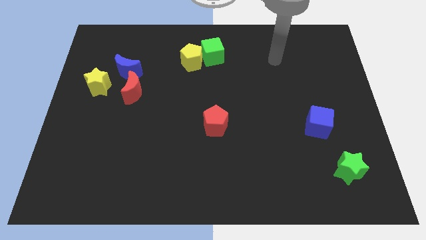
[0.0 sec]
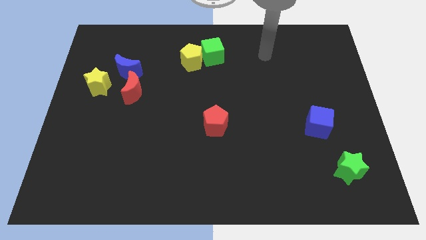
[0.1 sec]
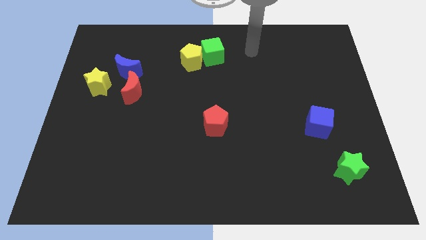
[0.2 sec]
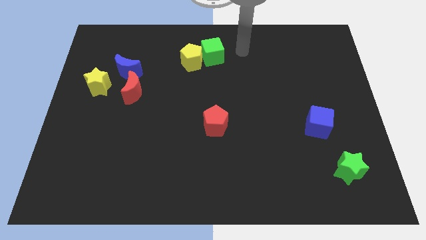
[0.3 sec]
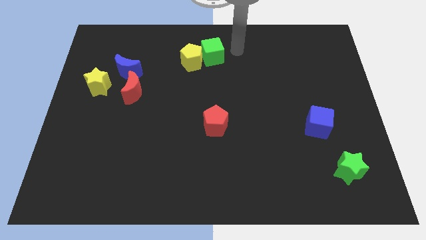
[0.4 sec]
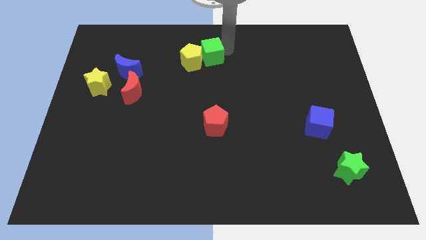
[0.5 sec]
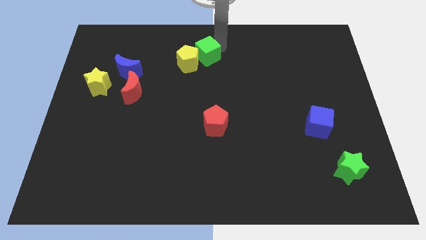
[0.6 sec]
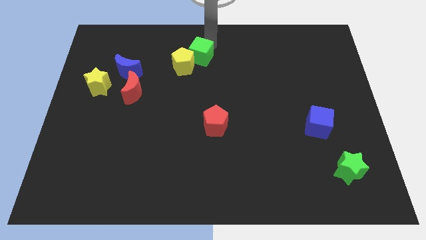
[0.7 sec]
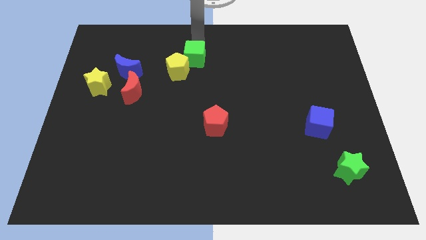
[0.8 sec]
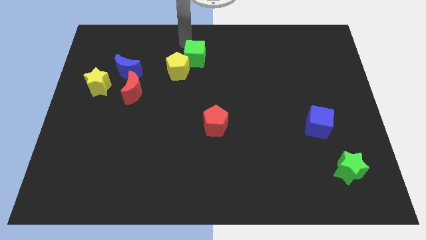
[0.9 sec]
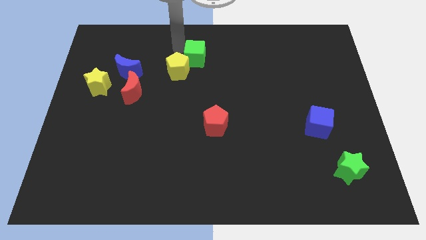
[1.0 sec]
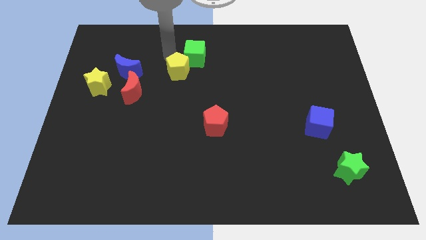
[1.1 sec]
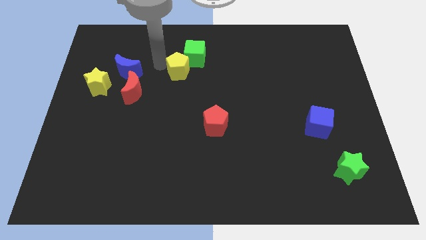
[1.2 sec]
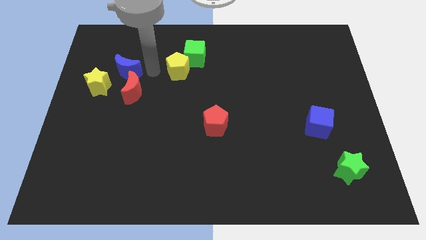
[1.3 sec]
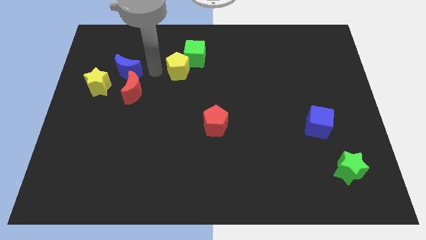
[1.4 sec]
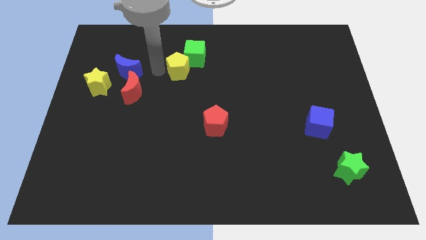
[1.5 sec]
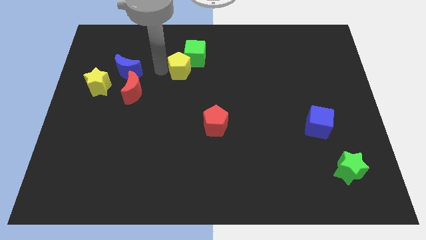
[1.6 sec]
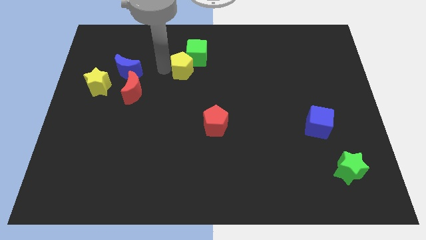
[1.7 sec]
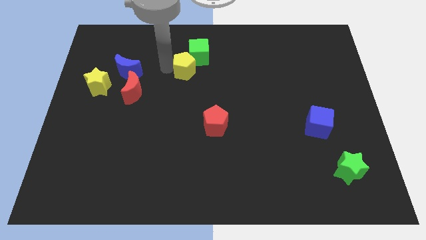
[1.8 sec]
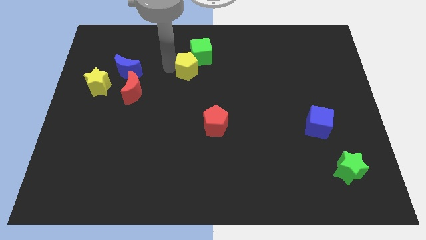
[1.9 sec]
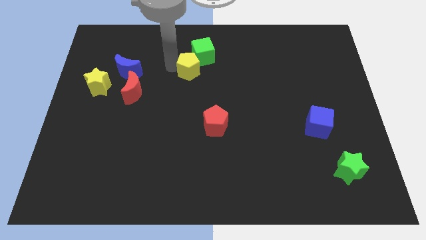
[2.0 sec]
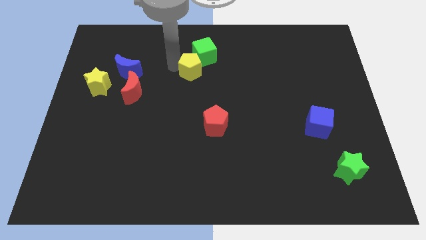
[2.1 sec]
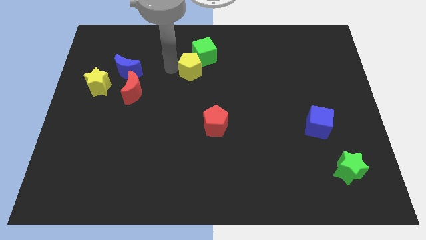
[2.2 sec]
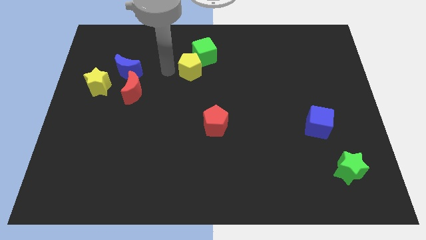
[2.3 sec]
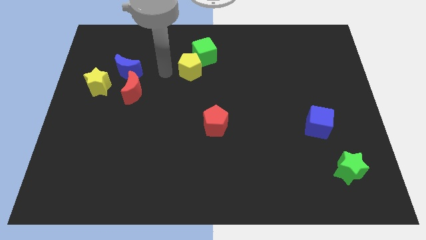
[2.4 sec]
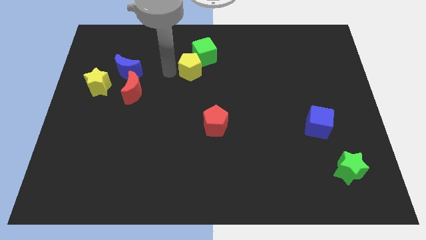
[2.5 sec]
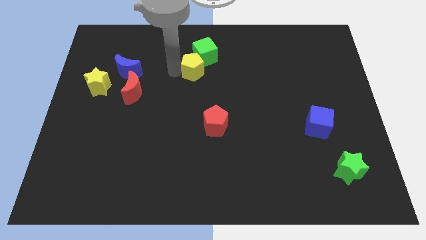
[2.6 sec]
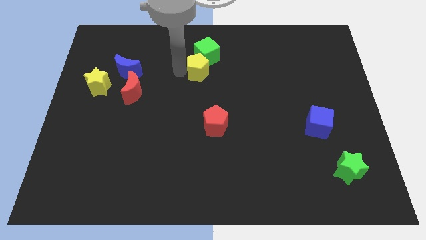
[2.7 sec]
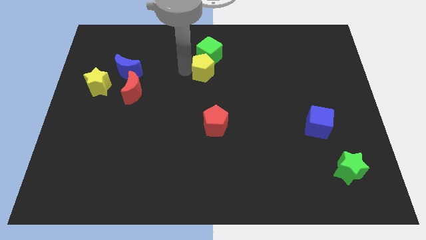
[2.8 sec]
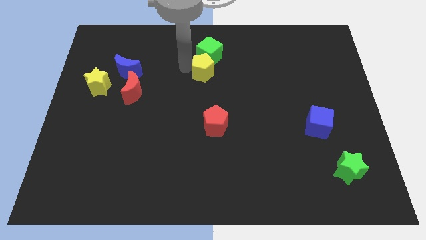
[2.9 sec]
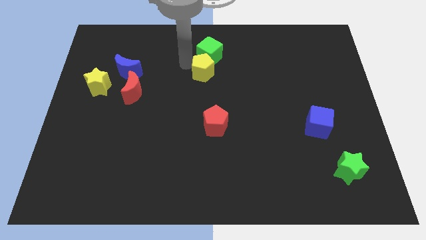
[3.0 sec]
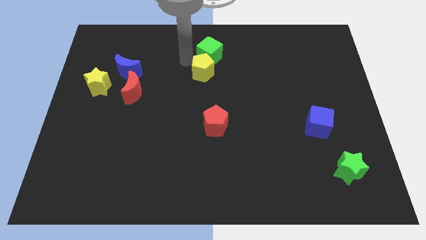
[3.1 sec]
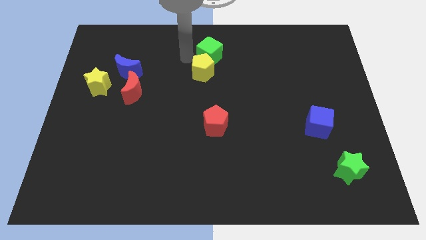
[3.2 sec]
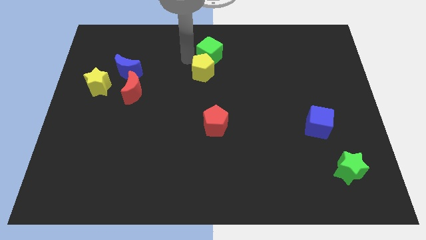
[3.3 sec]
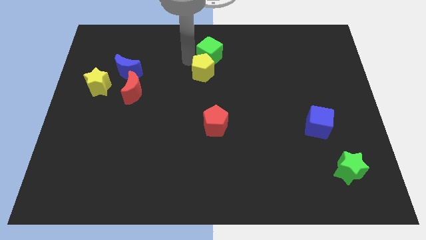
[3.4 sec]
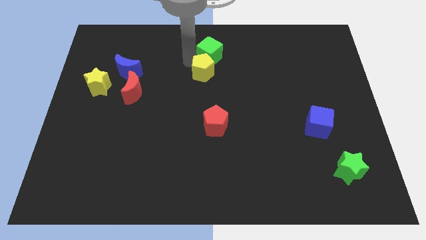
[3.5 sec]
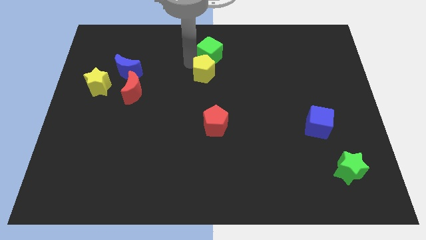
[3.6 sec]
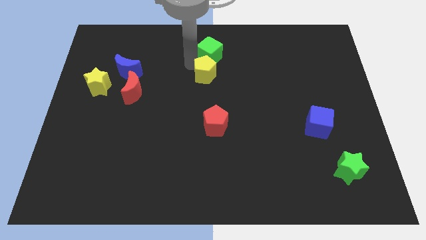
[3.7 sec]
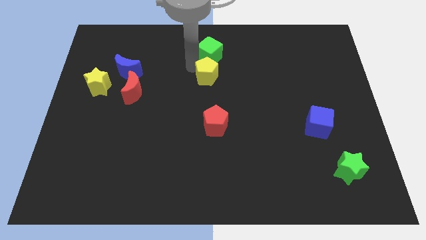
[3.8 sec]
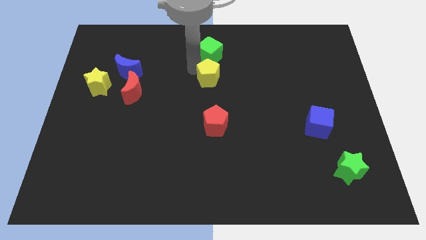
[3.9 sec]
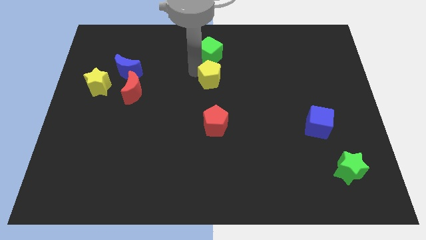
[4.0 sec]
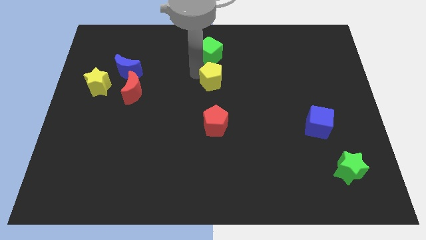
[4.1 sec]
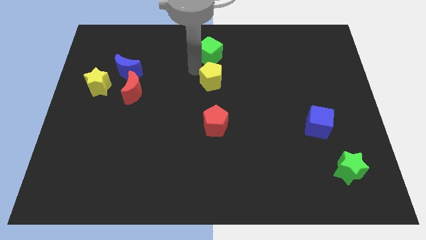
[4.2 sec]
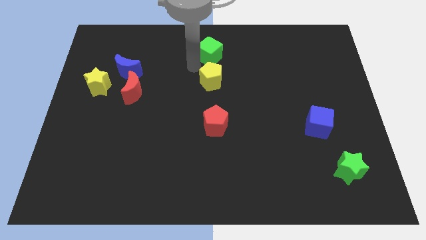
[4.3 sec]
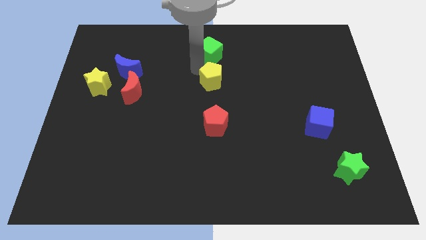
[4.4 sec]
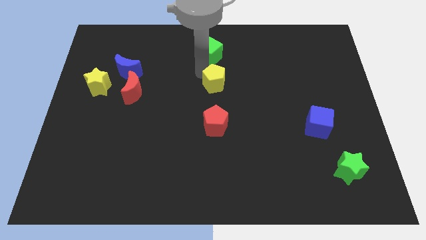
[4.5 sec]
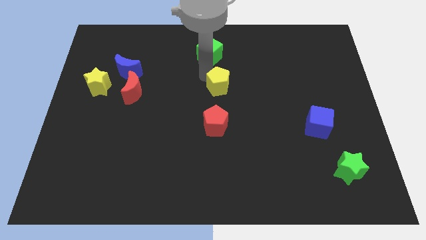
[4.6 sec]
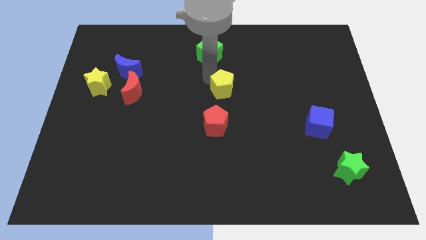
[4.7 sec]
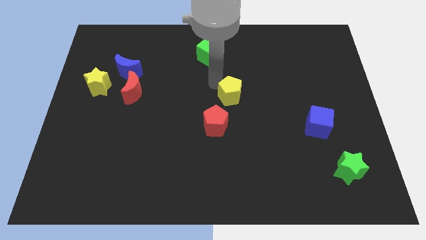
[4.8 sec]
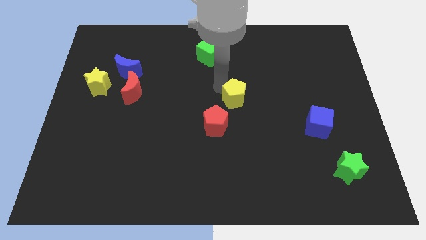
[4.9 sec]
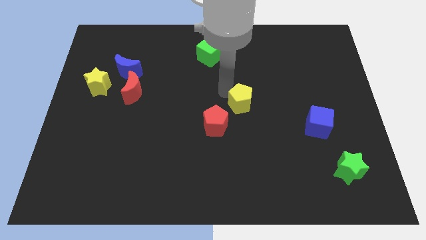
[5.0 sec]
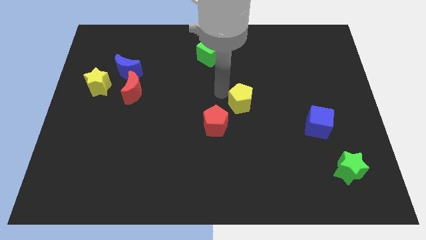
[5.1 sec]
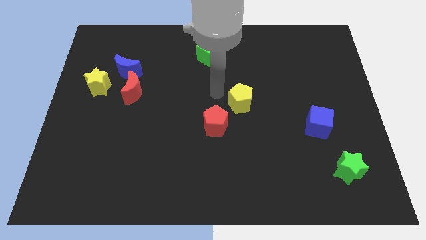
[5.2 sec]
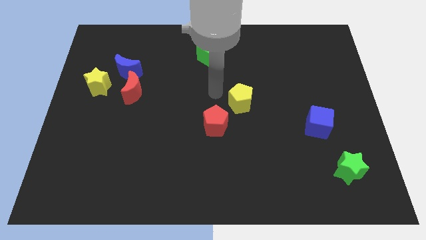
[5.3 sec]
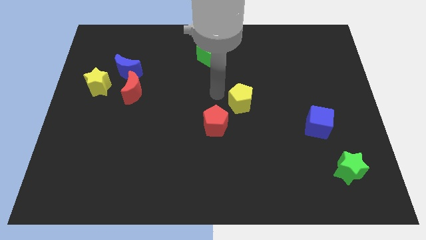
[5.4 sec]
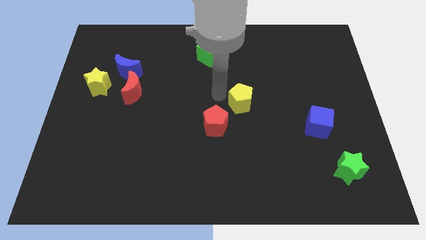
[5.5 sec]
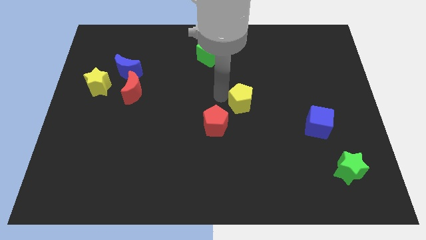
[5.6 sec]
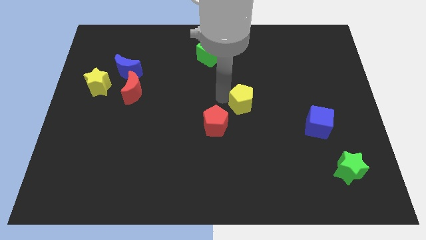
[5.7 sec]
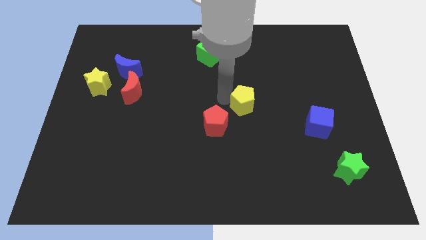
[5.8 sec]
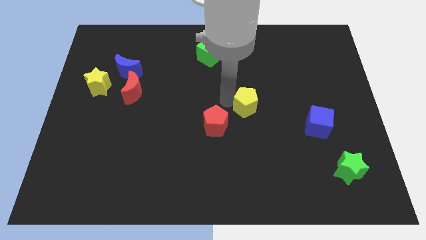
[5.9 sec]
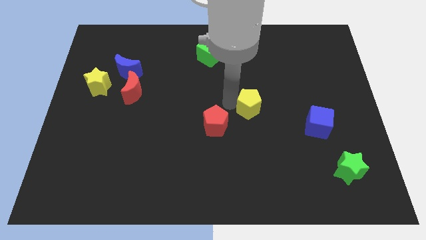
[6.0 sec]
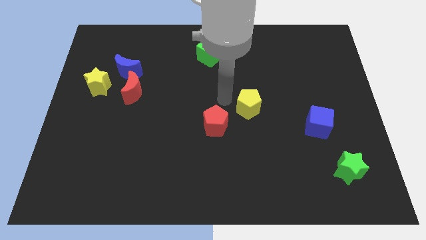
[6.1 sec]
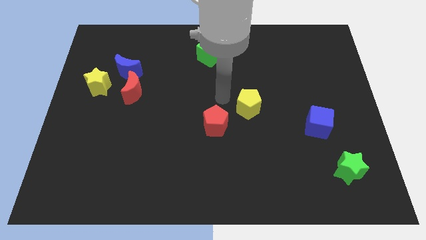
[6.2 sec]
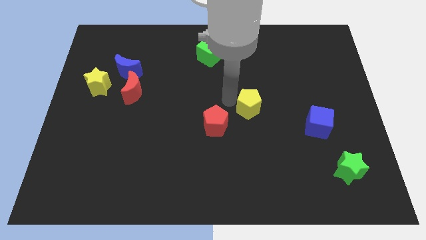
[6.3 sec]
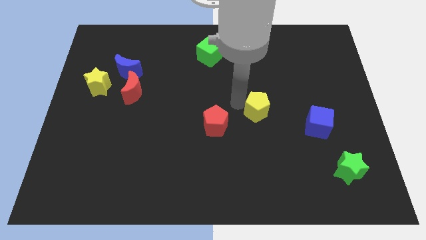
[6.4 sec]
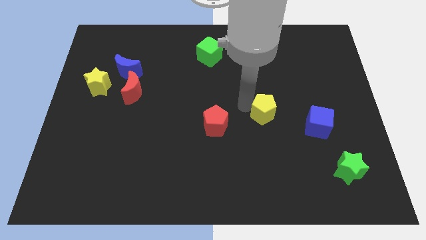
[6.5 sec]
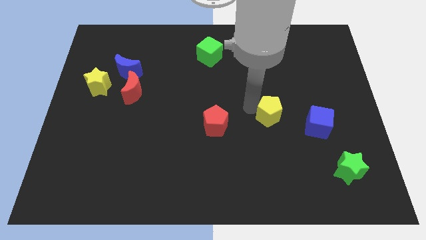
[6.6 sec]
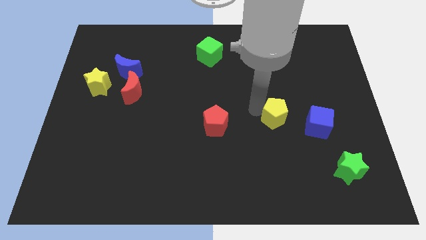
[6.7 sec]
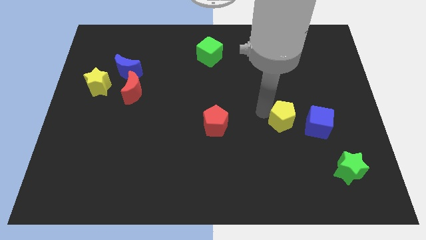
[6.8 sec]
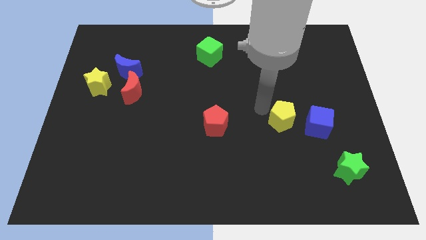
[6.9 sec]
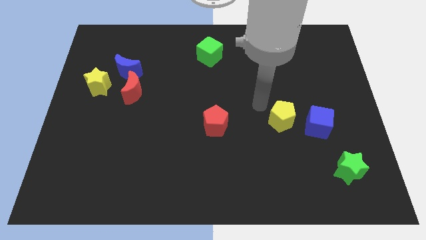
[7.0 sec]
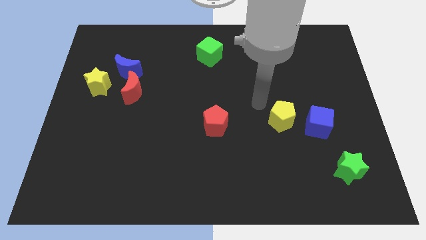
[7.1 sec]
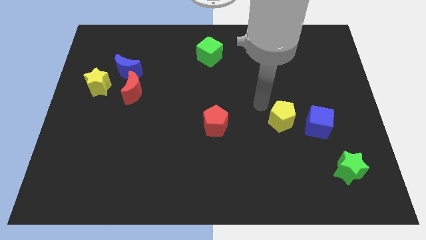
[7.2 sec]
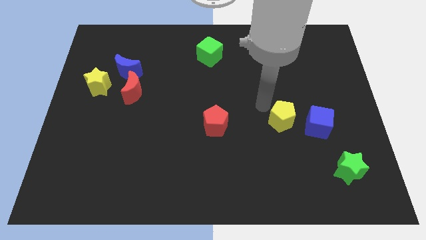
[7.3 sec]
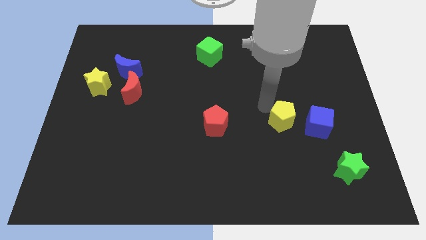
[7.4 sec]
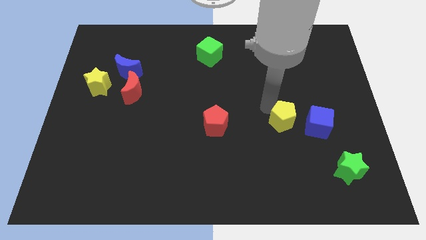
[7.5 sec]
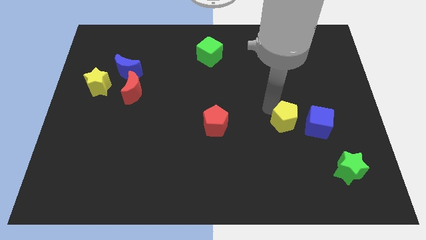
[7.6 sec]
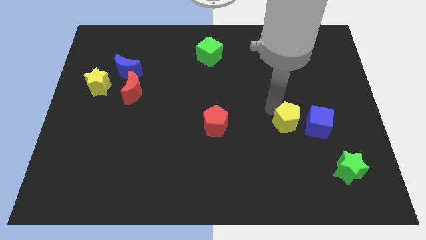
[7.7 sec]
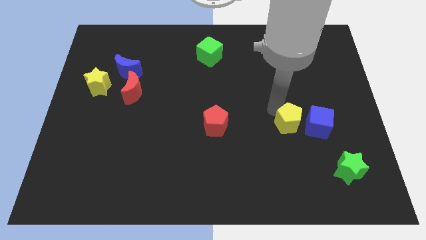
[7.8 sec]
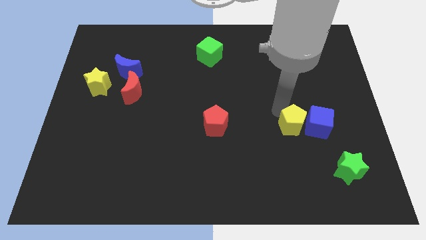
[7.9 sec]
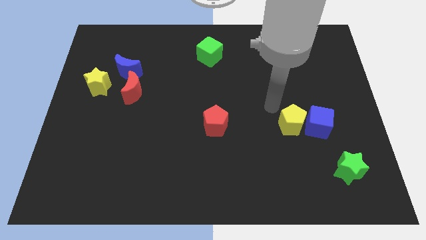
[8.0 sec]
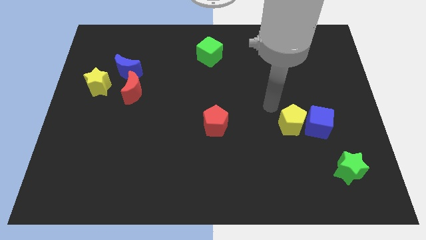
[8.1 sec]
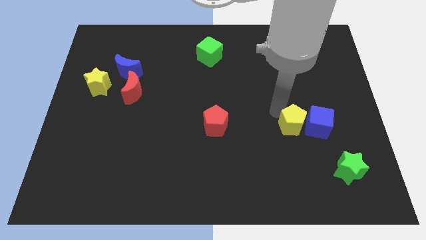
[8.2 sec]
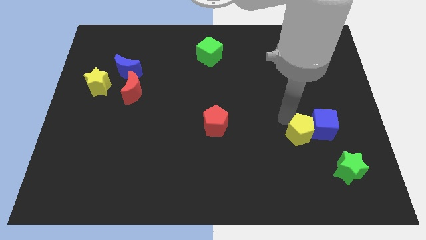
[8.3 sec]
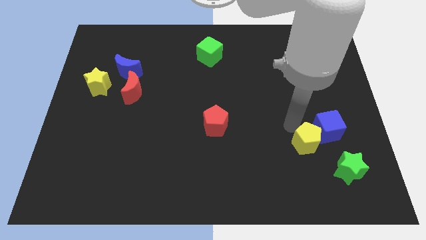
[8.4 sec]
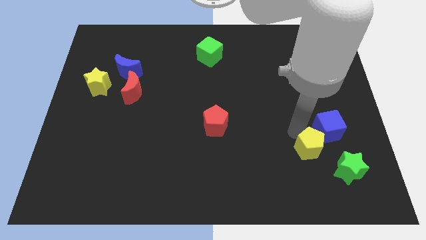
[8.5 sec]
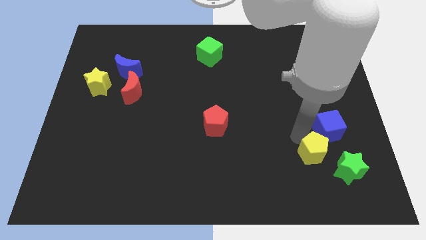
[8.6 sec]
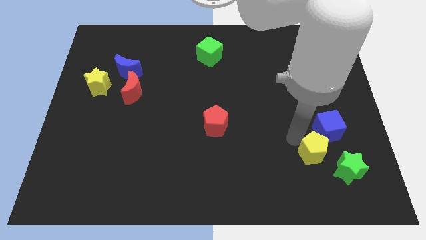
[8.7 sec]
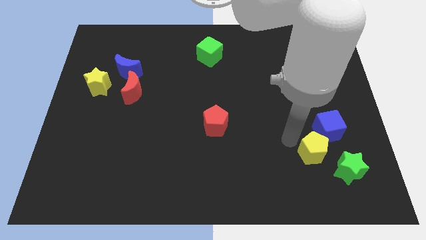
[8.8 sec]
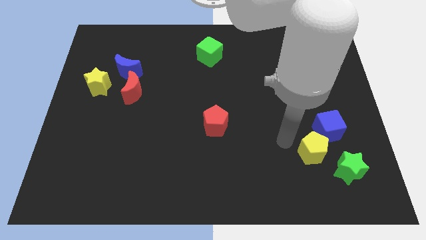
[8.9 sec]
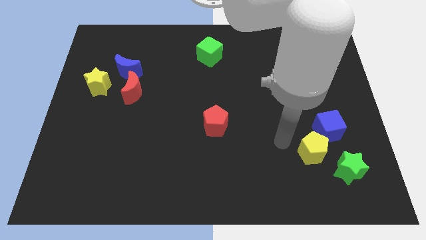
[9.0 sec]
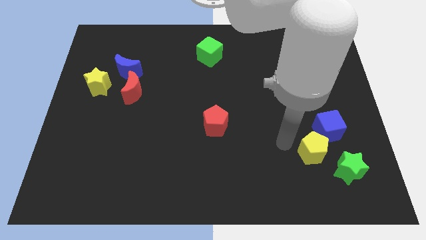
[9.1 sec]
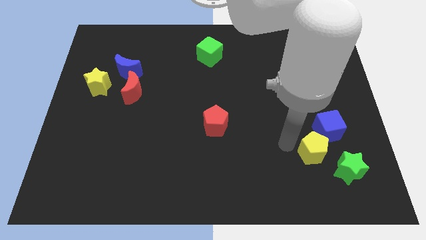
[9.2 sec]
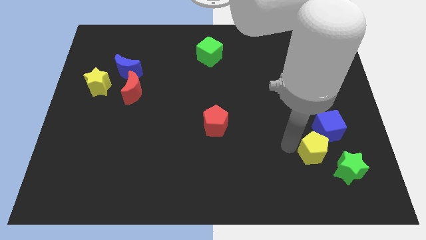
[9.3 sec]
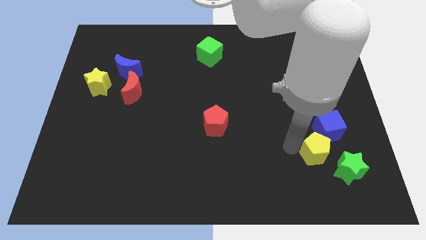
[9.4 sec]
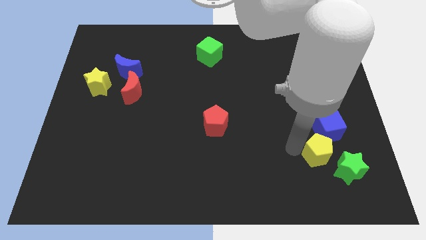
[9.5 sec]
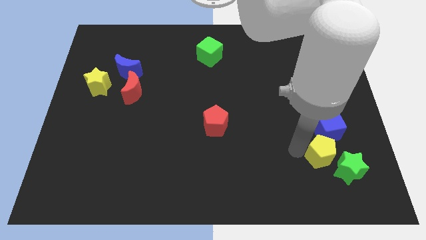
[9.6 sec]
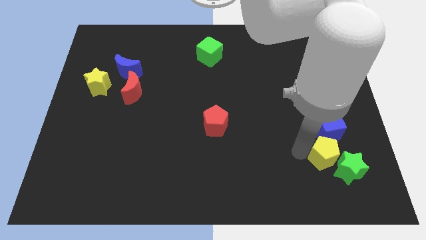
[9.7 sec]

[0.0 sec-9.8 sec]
push the yellow pentagon to the green star
